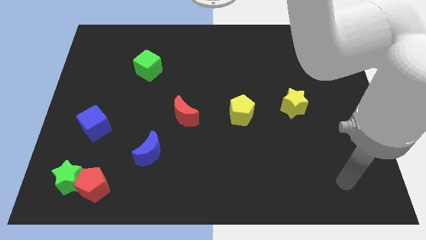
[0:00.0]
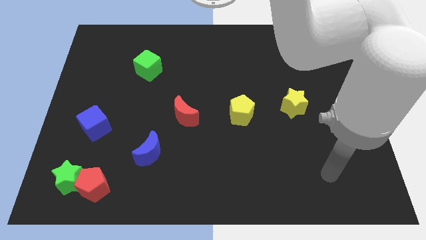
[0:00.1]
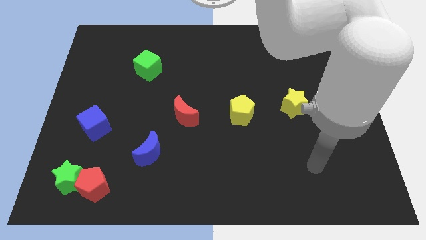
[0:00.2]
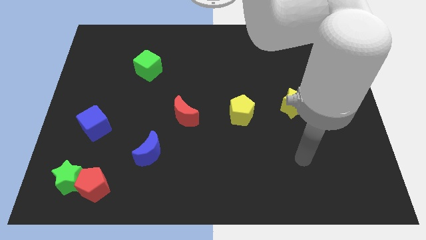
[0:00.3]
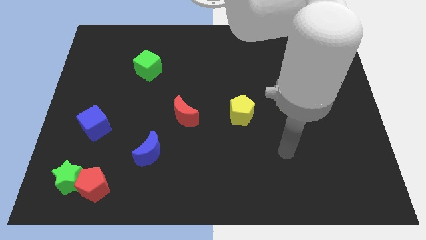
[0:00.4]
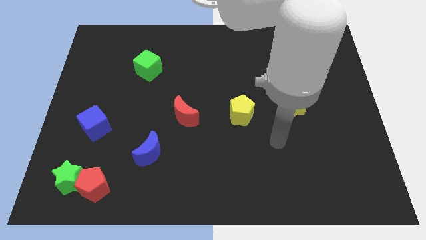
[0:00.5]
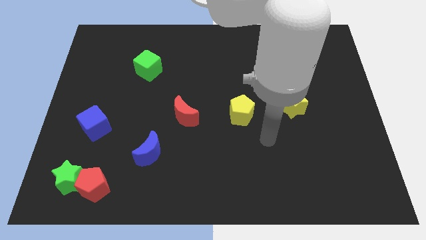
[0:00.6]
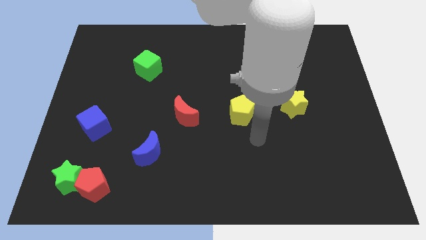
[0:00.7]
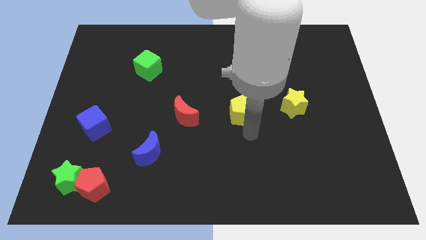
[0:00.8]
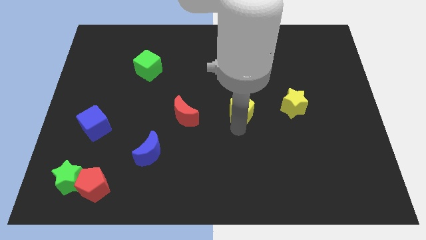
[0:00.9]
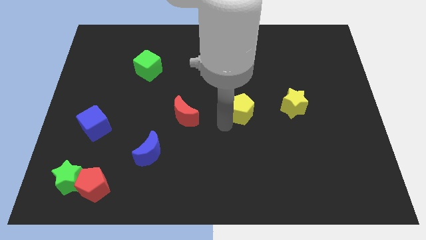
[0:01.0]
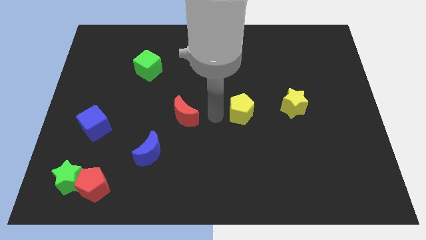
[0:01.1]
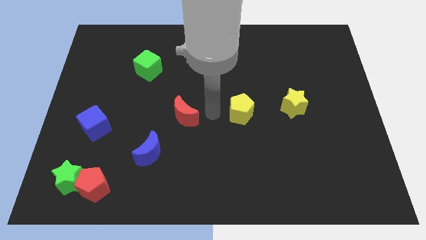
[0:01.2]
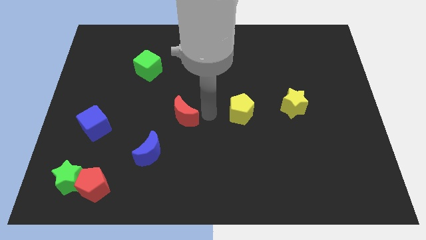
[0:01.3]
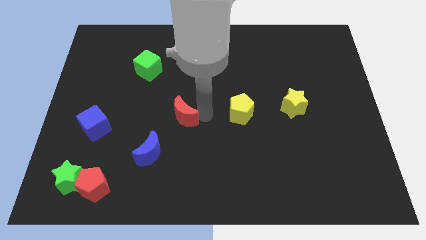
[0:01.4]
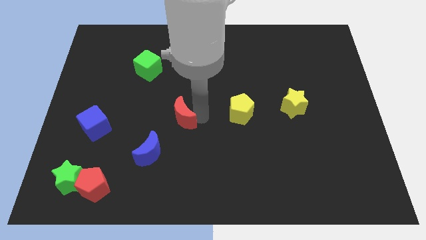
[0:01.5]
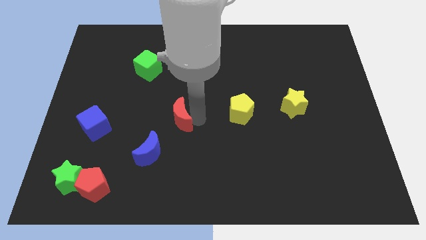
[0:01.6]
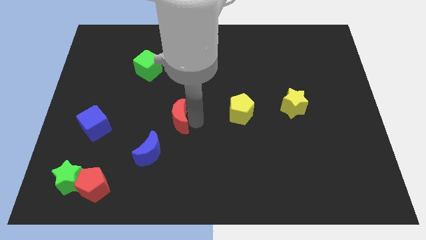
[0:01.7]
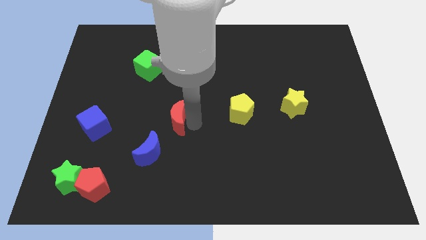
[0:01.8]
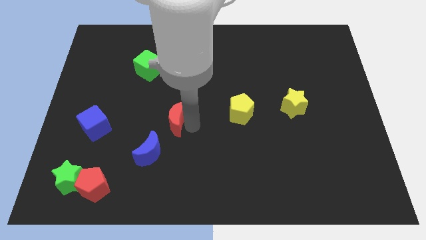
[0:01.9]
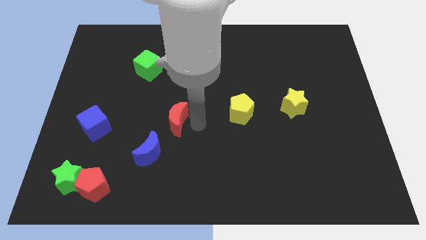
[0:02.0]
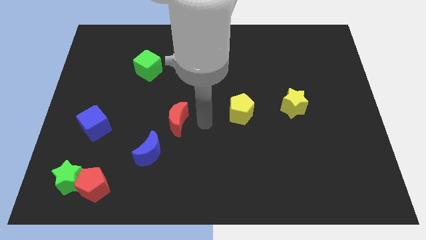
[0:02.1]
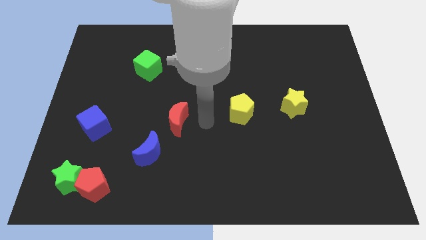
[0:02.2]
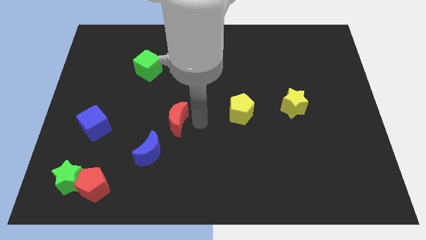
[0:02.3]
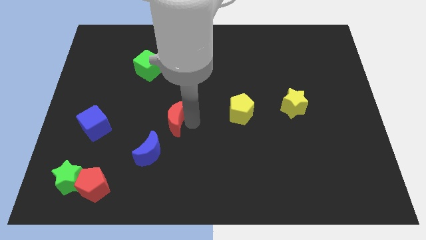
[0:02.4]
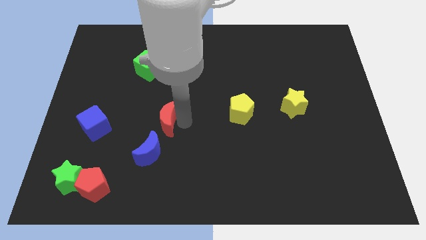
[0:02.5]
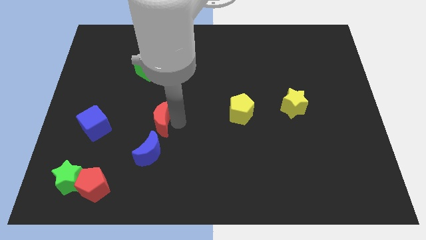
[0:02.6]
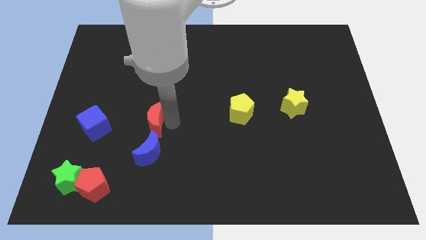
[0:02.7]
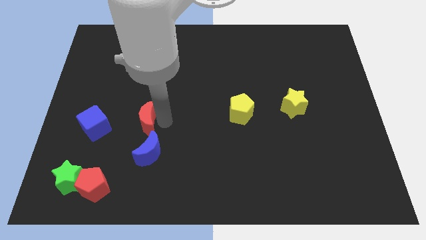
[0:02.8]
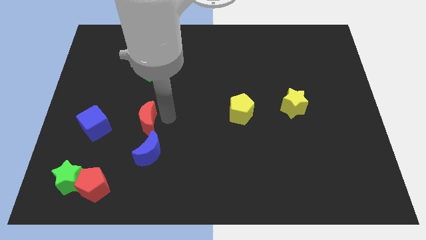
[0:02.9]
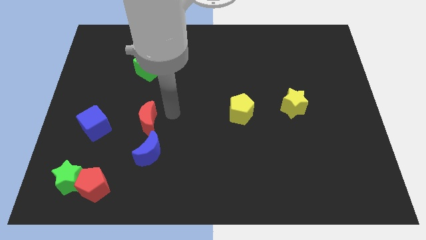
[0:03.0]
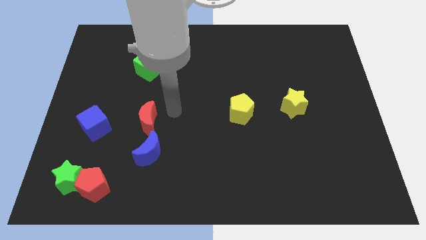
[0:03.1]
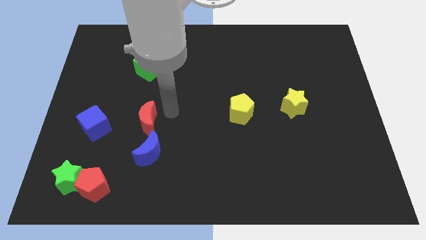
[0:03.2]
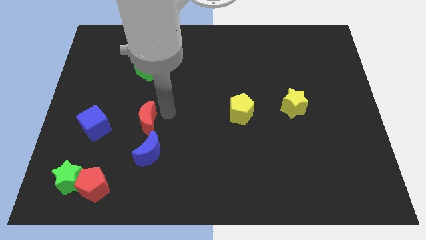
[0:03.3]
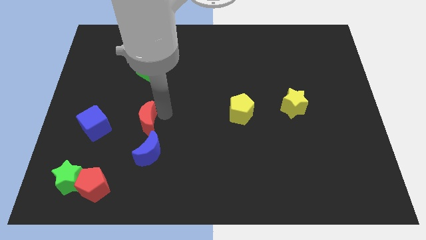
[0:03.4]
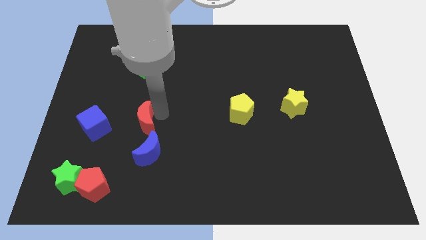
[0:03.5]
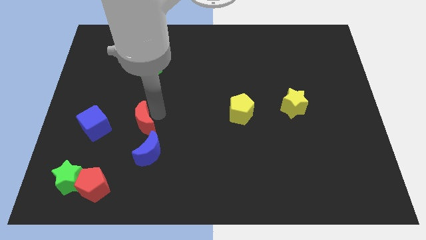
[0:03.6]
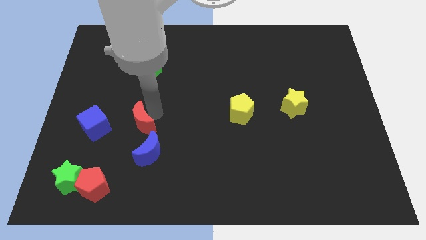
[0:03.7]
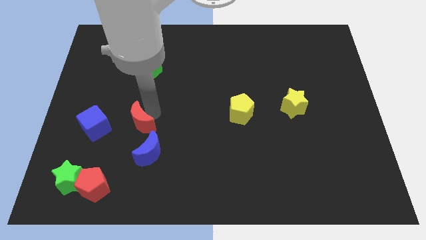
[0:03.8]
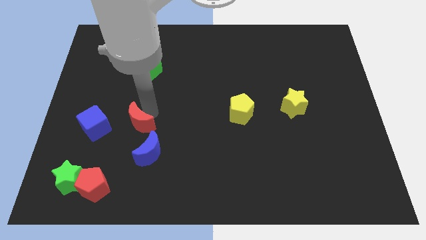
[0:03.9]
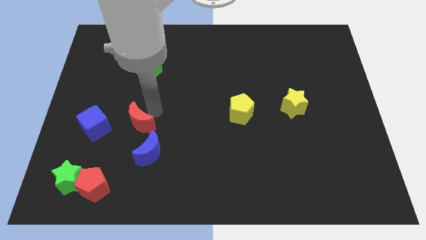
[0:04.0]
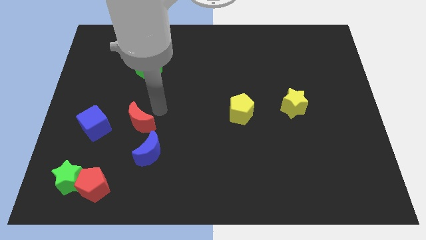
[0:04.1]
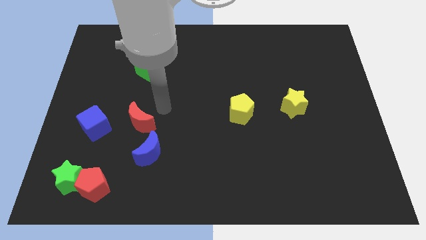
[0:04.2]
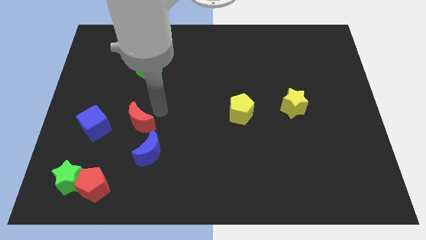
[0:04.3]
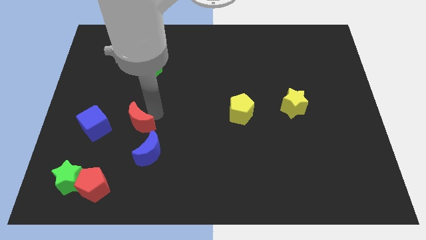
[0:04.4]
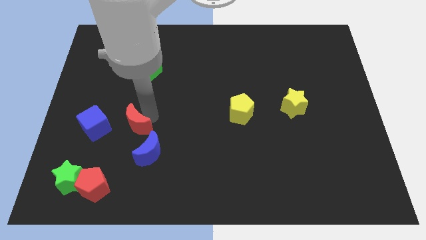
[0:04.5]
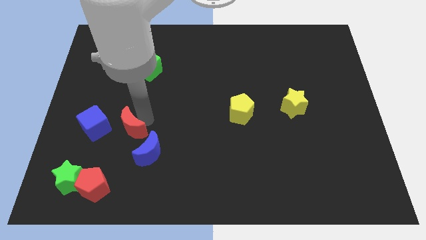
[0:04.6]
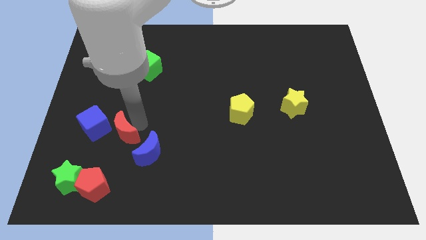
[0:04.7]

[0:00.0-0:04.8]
push the red moon to the top of the red pentagon

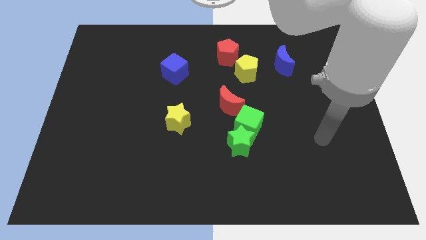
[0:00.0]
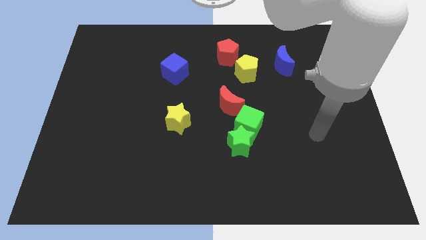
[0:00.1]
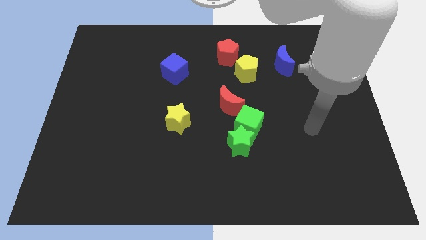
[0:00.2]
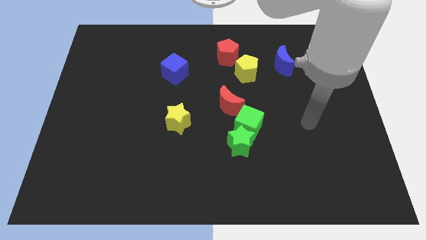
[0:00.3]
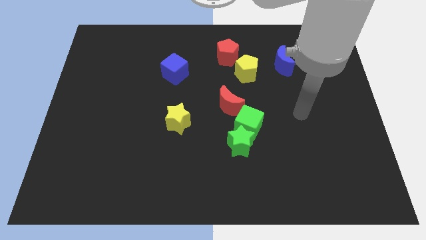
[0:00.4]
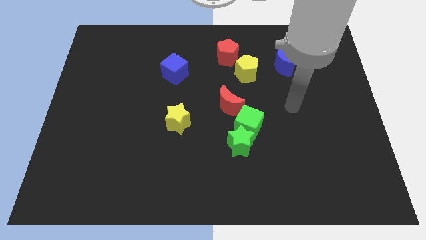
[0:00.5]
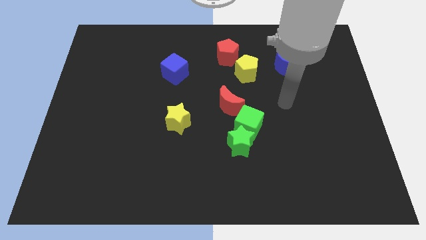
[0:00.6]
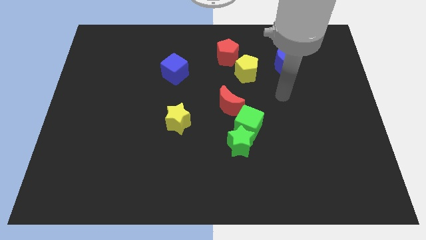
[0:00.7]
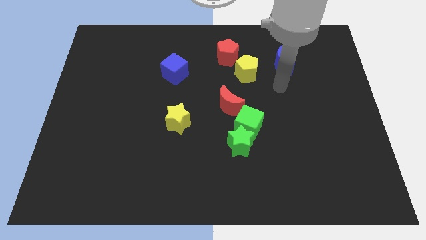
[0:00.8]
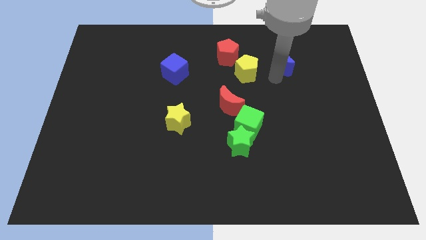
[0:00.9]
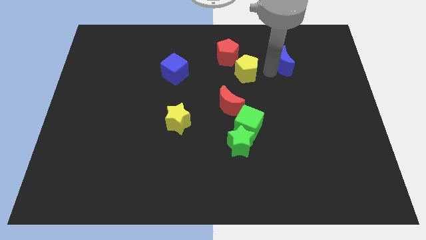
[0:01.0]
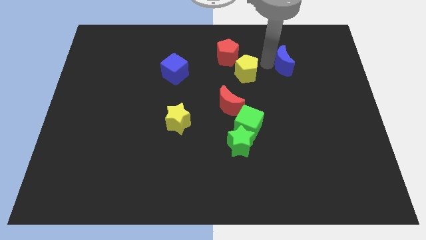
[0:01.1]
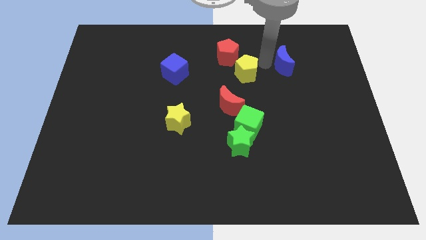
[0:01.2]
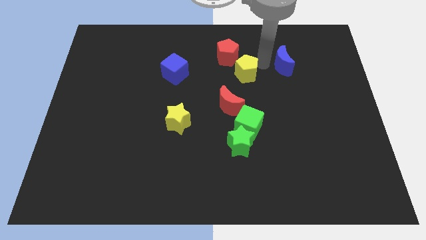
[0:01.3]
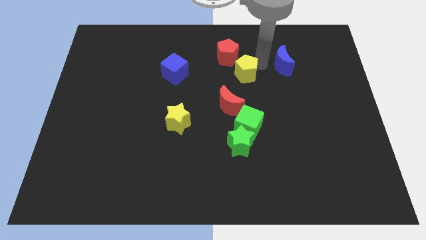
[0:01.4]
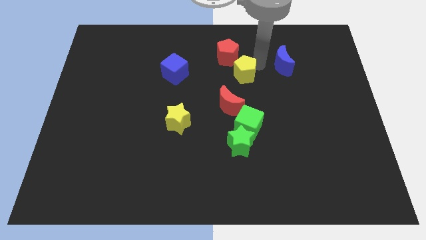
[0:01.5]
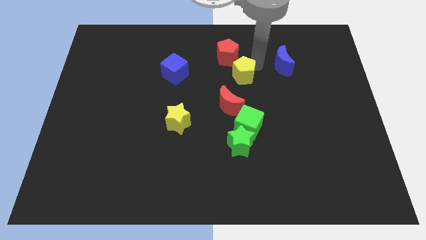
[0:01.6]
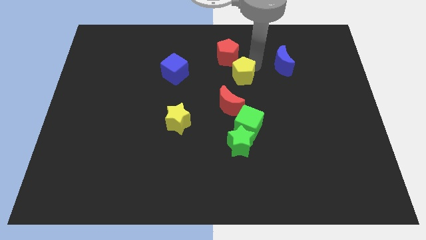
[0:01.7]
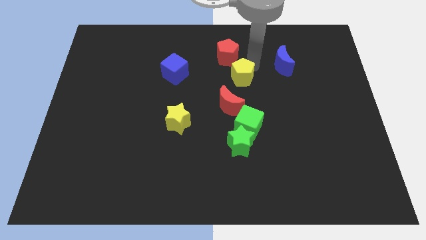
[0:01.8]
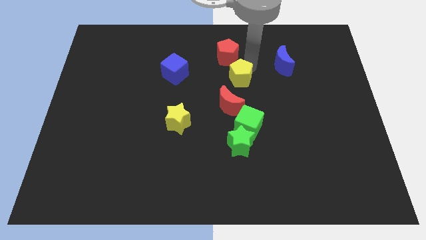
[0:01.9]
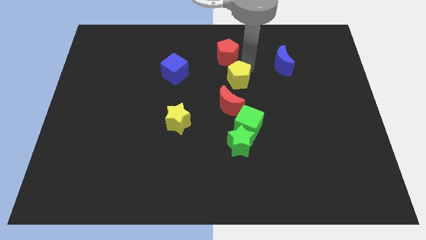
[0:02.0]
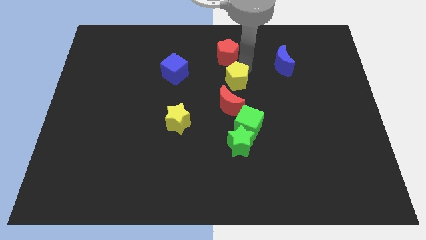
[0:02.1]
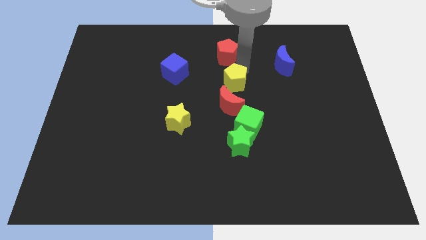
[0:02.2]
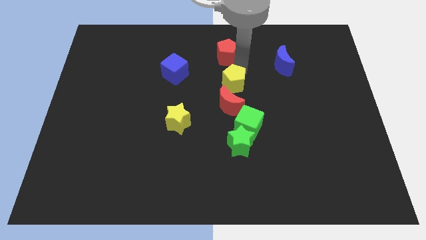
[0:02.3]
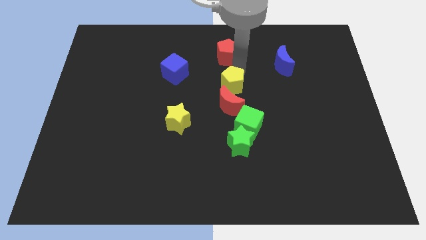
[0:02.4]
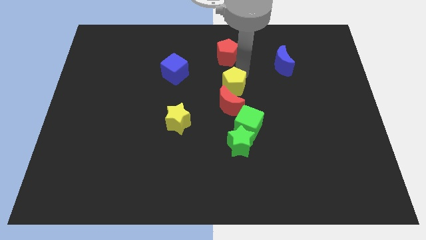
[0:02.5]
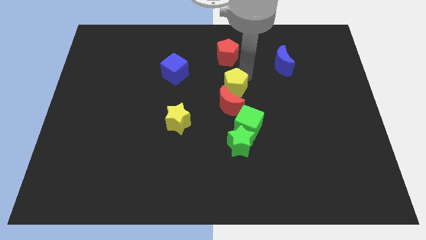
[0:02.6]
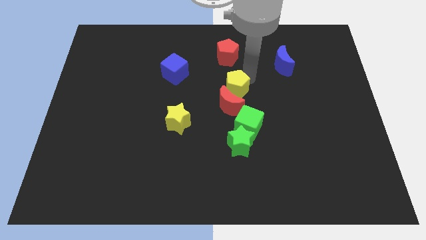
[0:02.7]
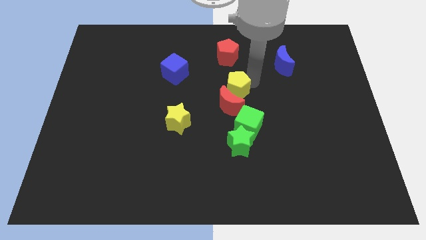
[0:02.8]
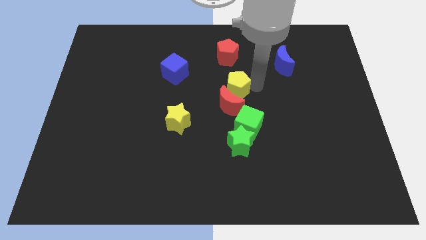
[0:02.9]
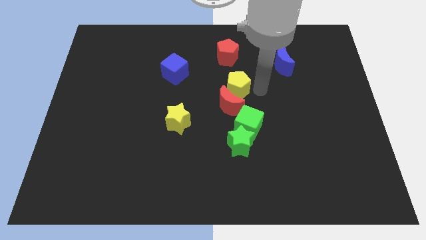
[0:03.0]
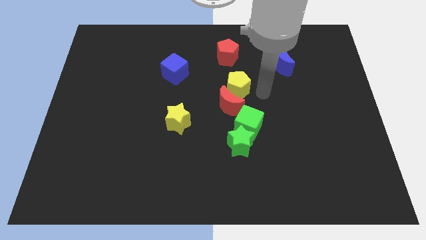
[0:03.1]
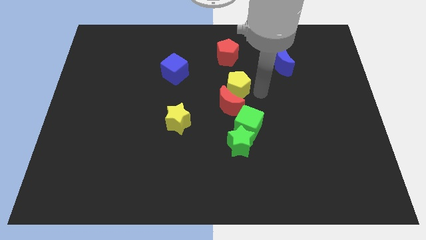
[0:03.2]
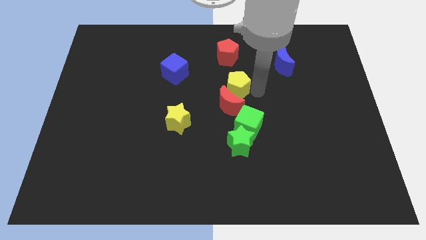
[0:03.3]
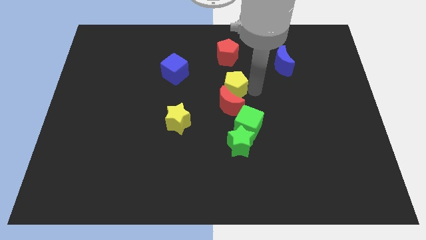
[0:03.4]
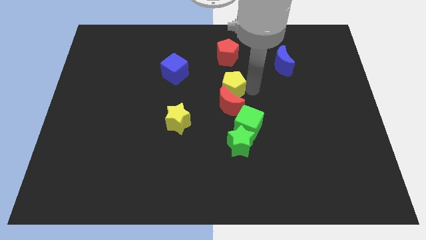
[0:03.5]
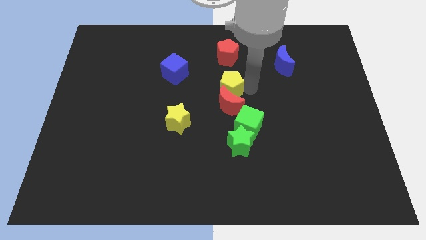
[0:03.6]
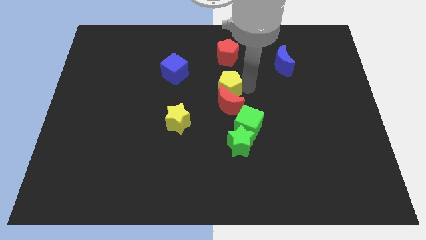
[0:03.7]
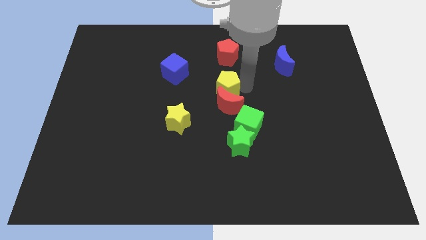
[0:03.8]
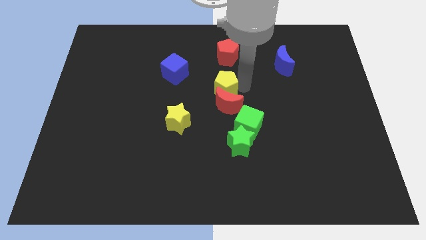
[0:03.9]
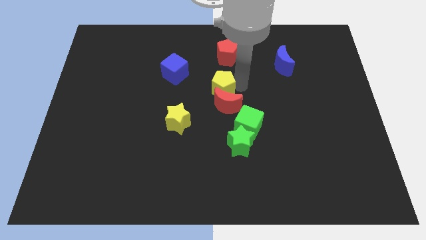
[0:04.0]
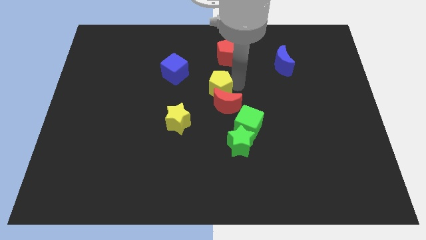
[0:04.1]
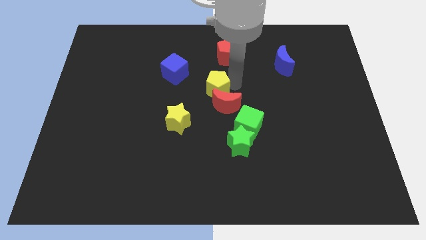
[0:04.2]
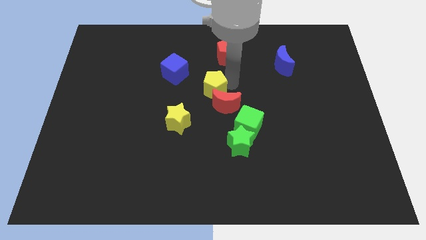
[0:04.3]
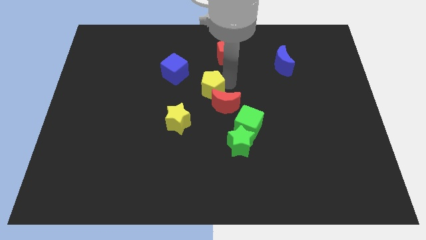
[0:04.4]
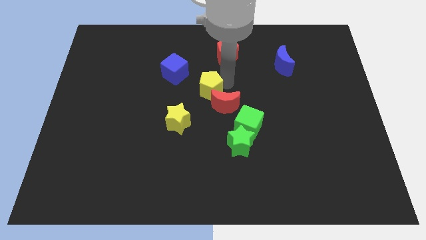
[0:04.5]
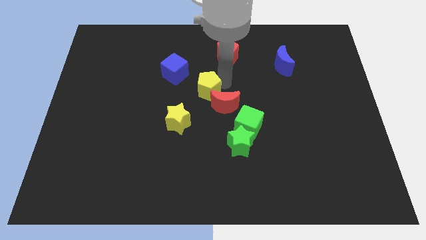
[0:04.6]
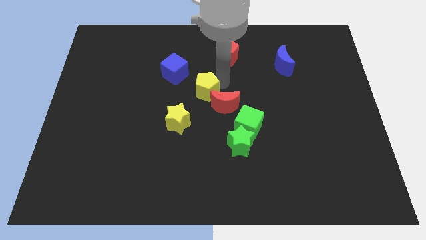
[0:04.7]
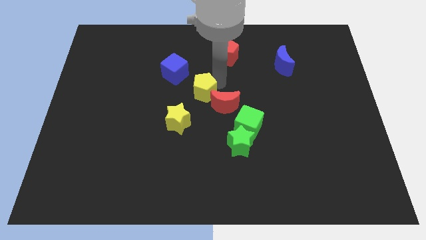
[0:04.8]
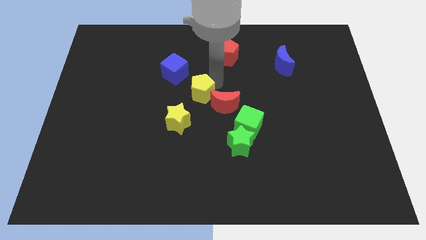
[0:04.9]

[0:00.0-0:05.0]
put the yellow pentagon to the top side of the yellow star
